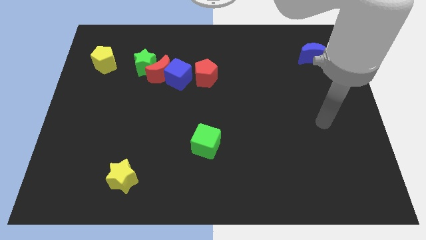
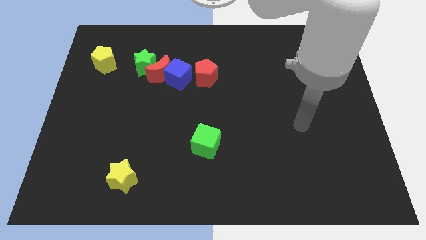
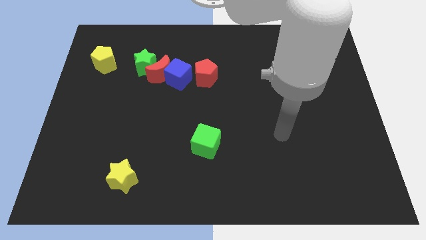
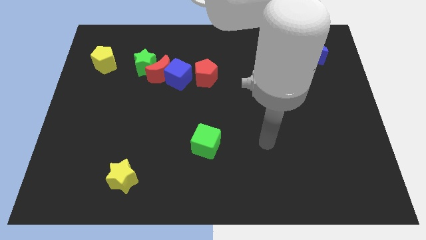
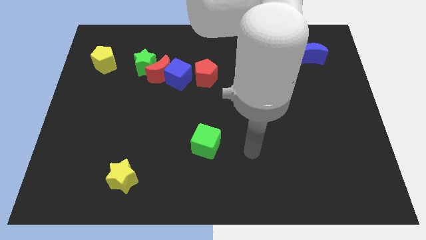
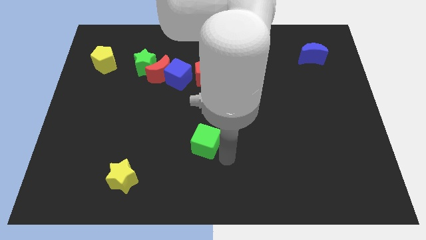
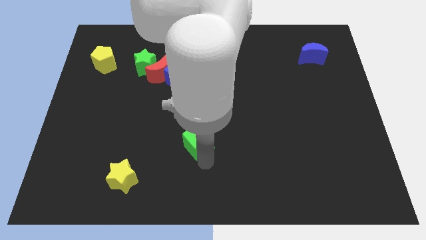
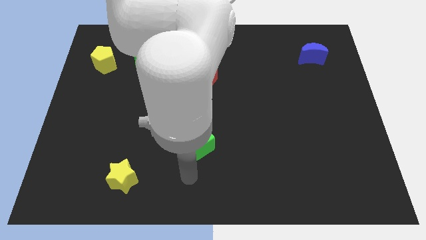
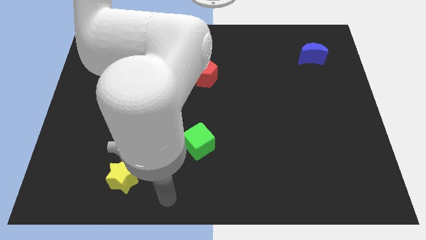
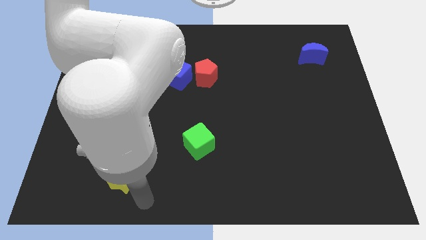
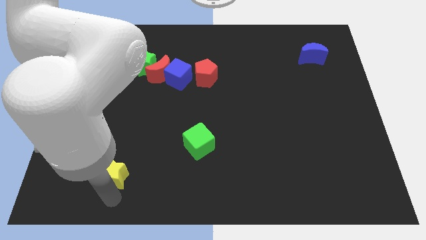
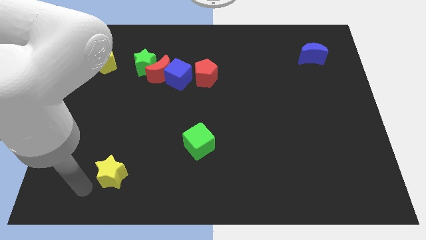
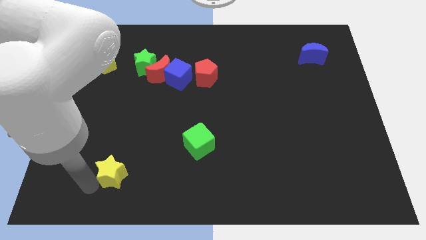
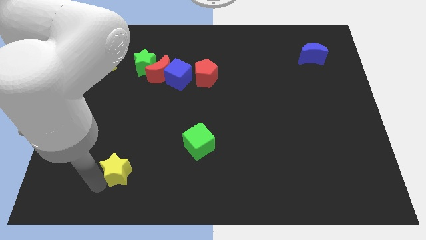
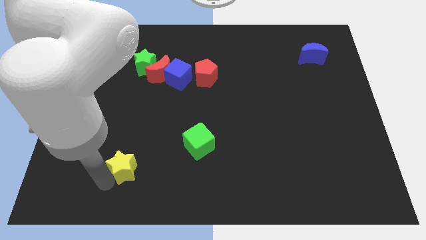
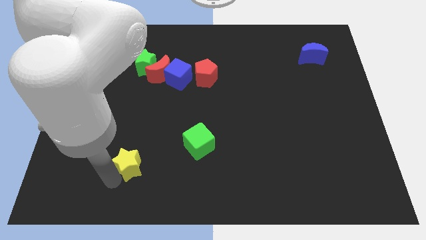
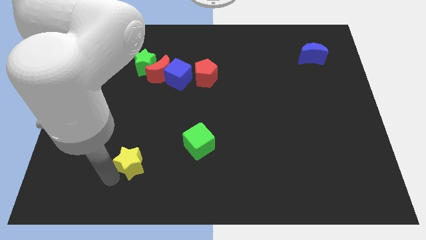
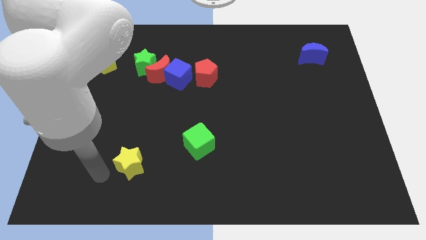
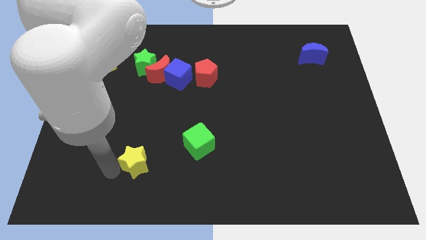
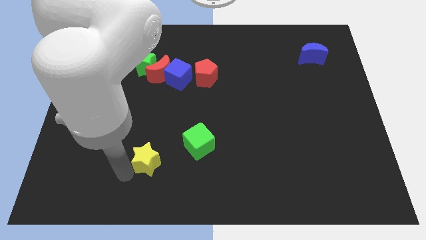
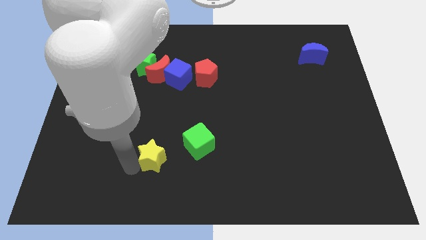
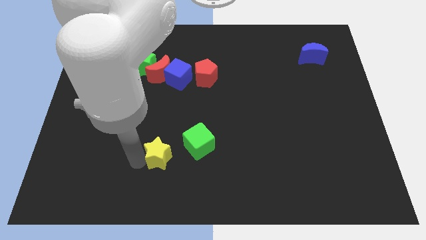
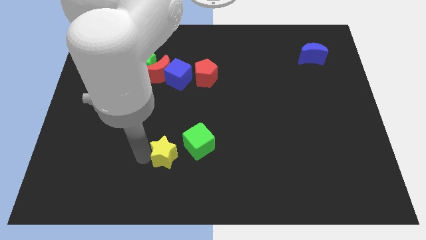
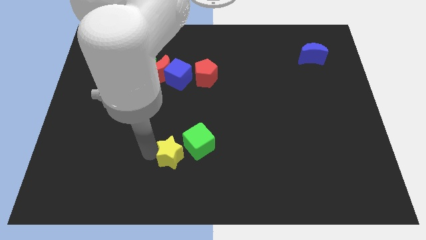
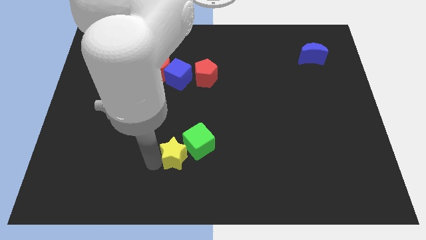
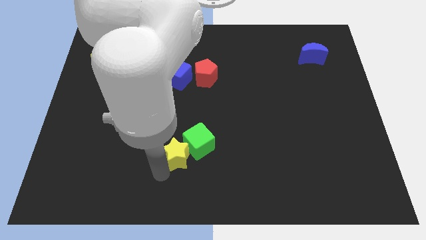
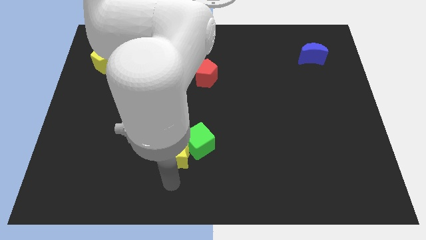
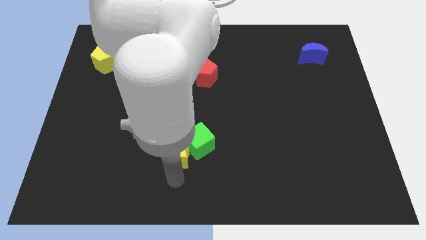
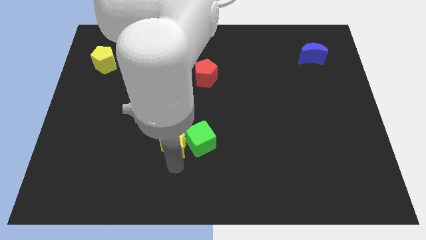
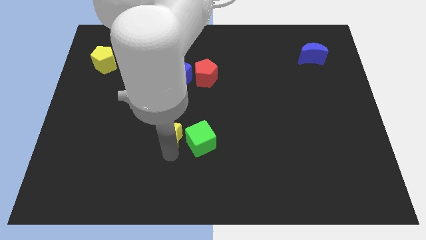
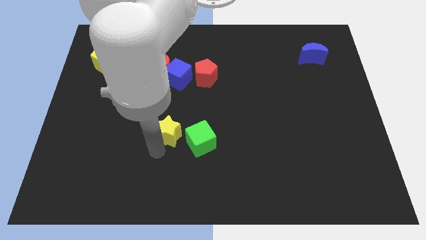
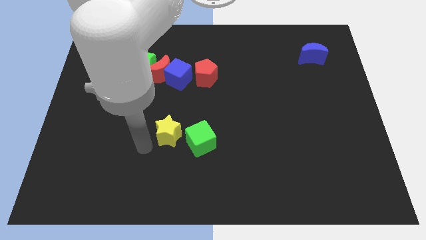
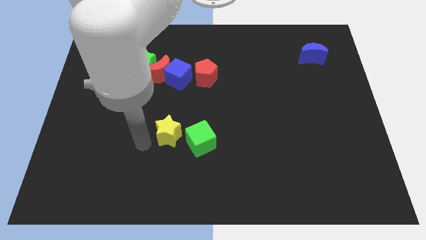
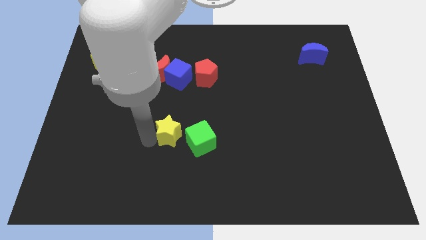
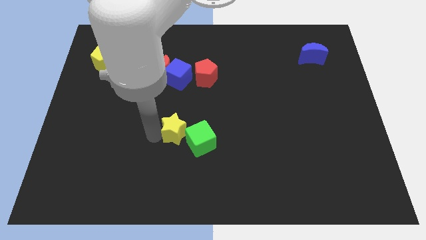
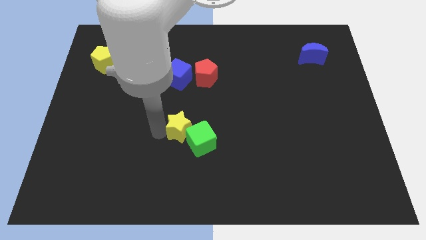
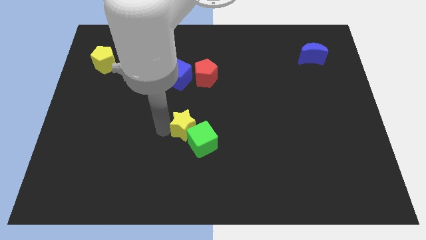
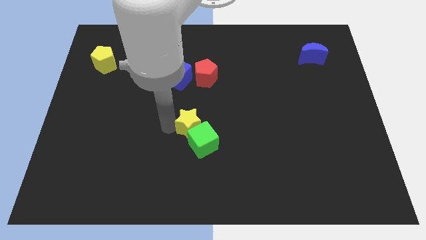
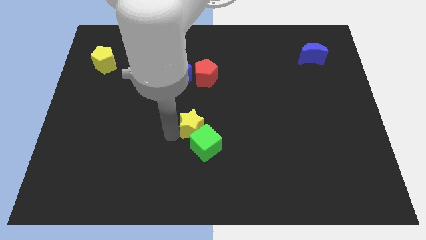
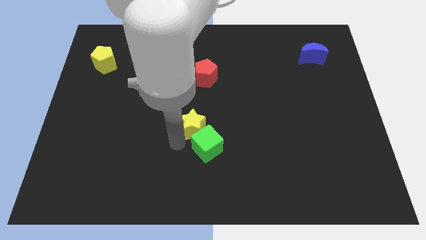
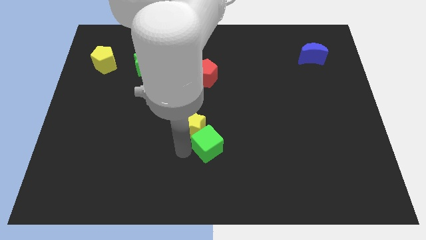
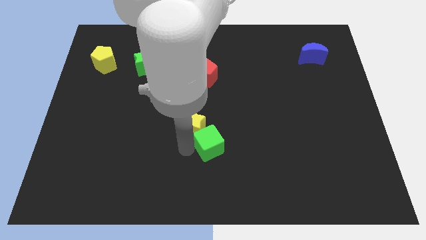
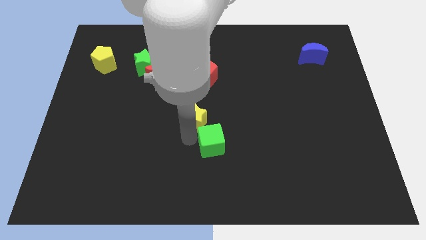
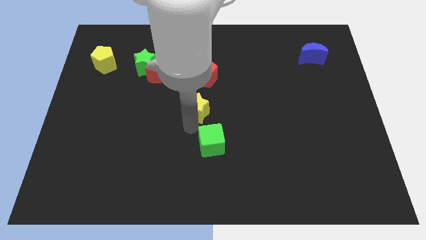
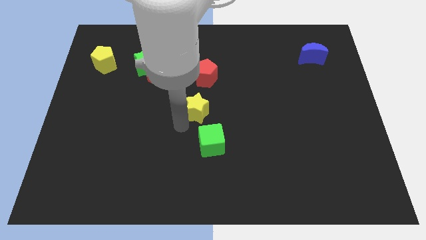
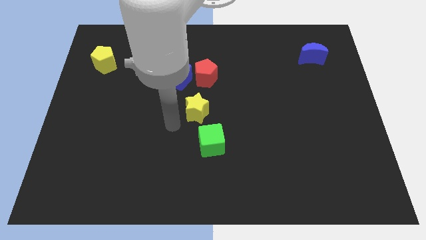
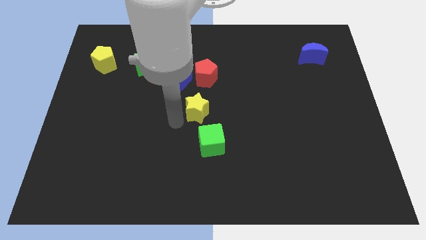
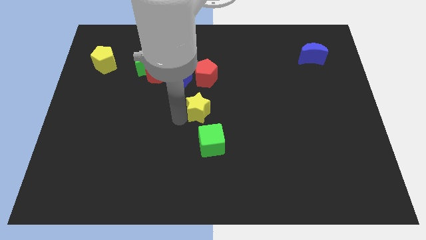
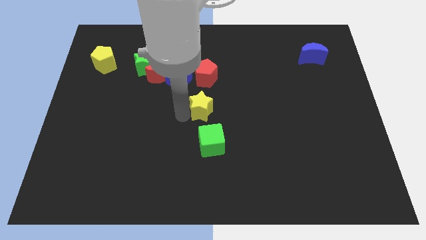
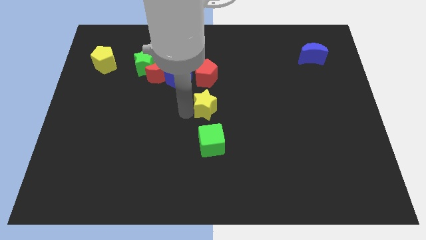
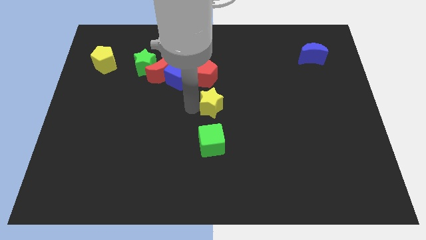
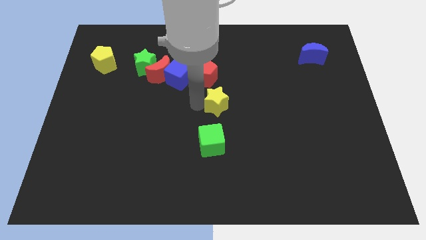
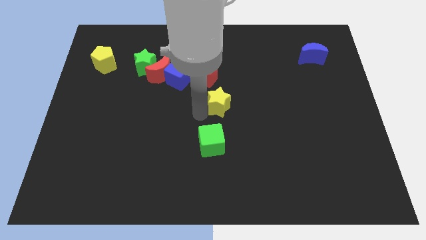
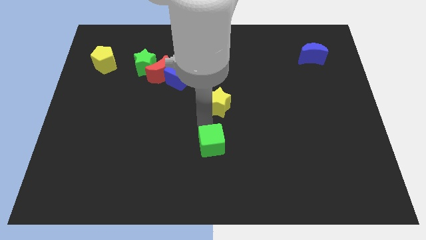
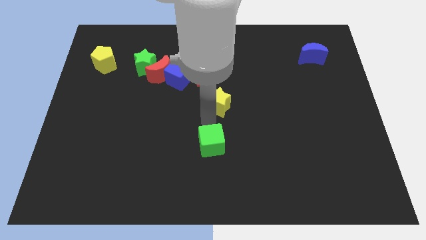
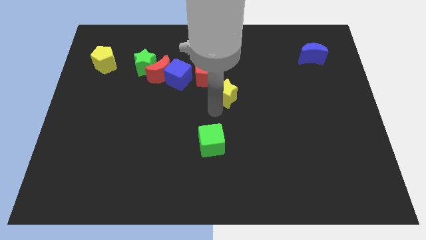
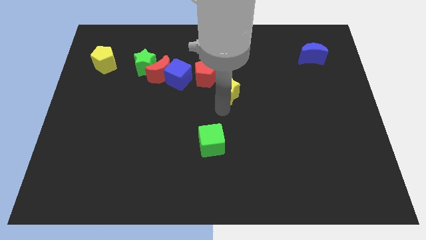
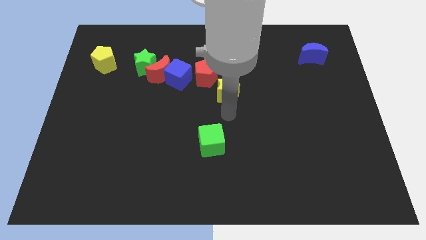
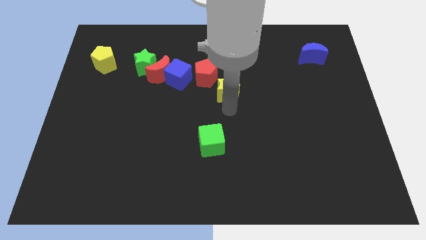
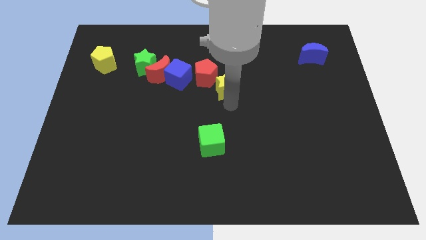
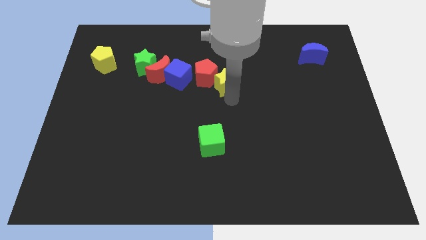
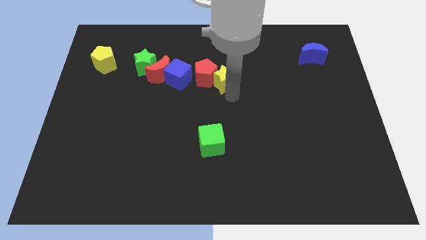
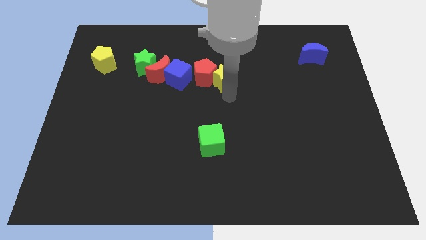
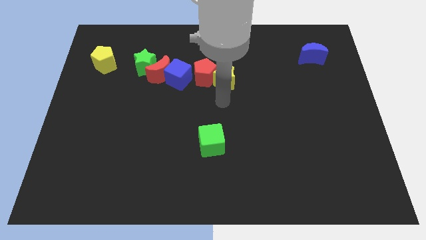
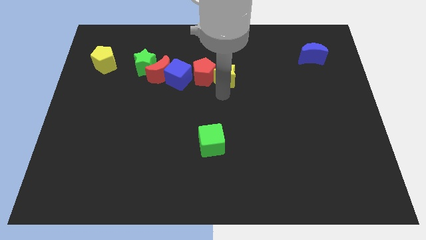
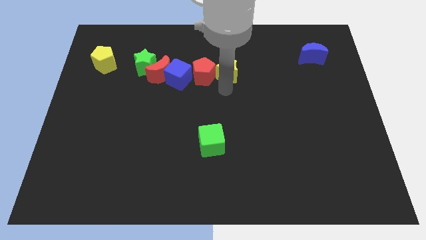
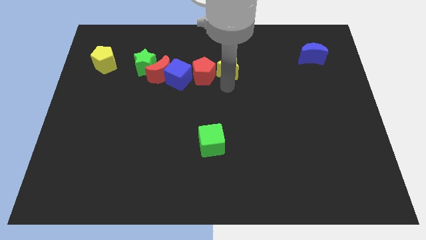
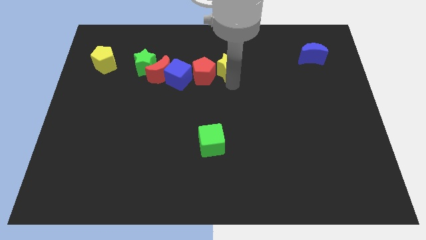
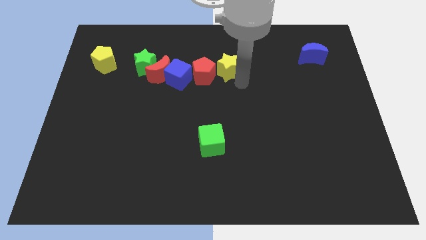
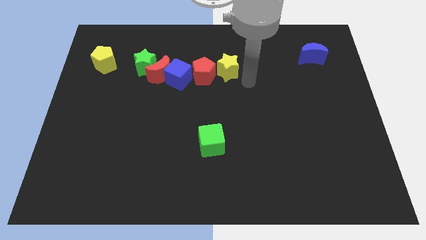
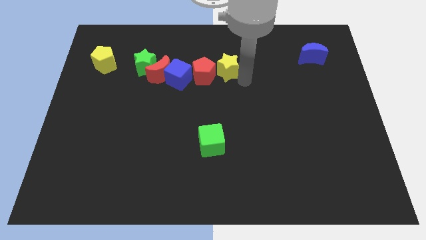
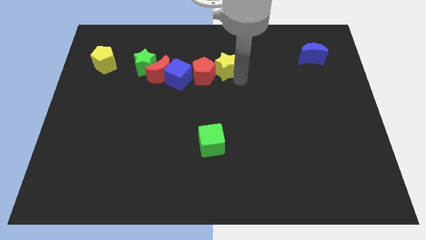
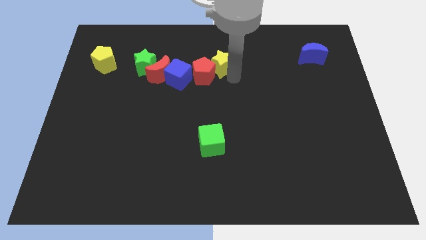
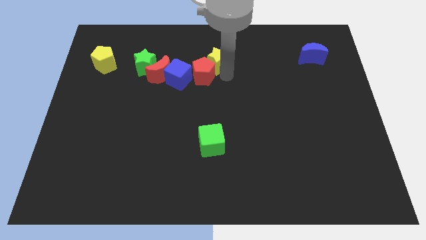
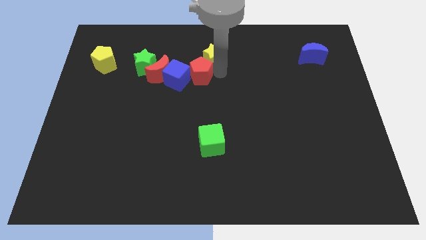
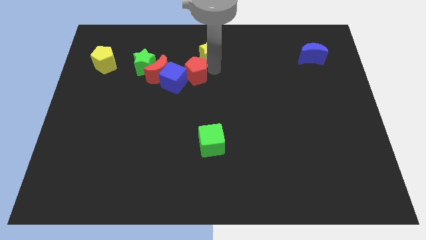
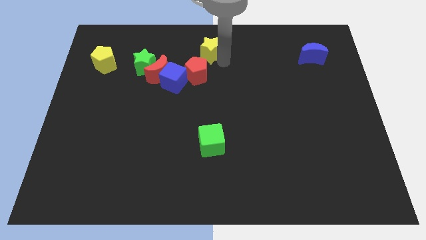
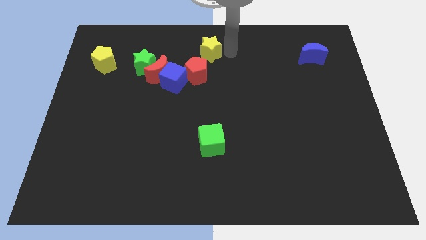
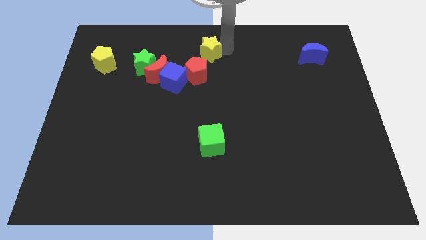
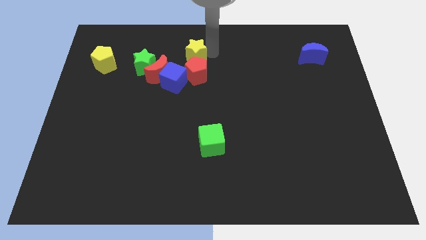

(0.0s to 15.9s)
put the yellow star to the top left of the red pentagon
